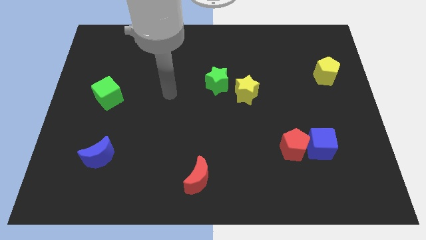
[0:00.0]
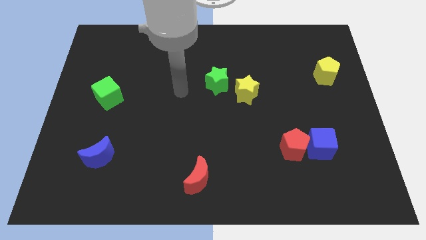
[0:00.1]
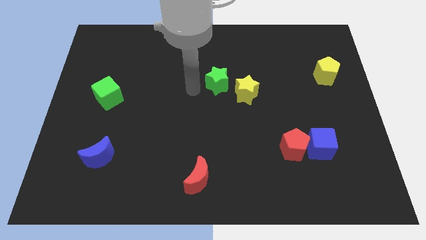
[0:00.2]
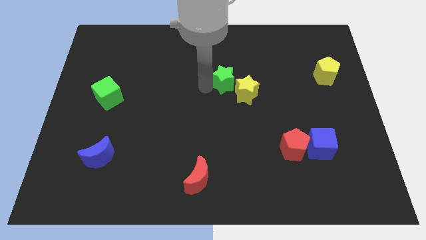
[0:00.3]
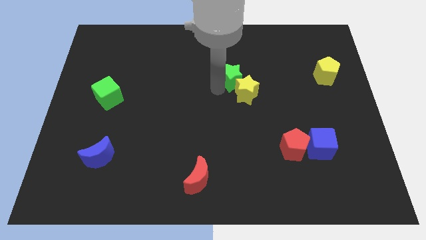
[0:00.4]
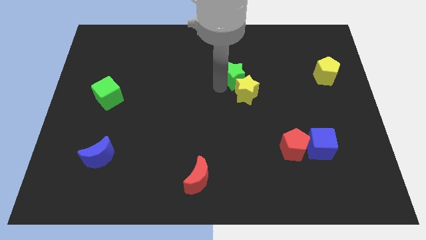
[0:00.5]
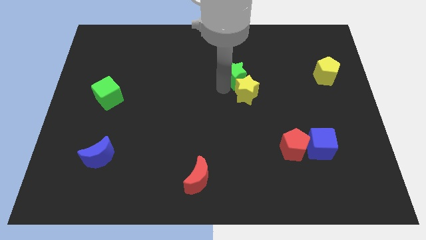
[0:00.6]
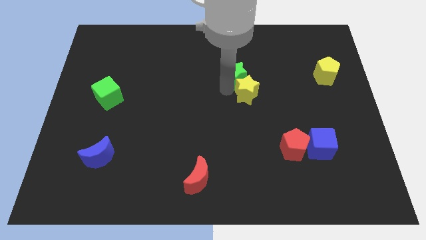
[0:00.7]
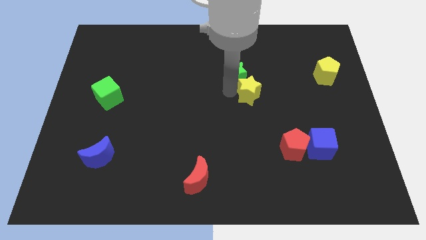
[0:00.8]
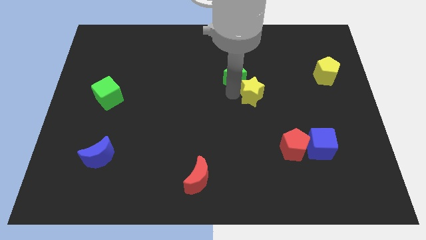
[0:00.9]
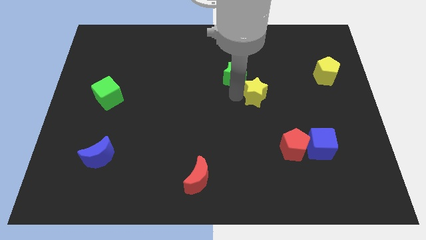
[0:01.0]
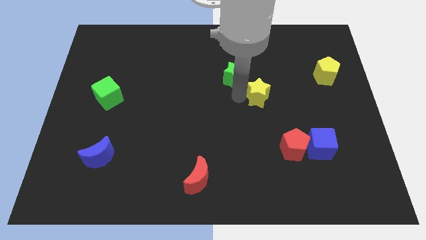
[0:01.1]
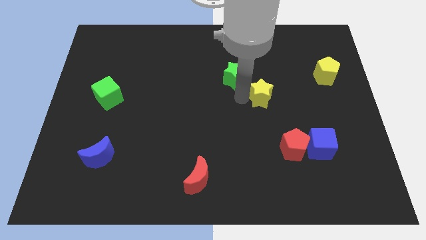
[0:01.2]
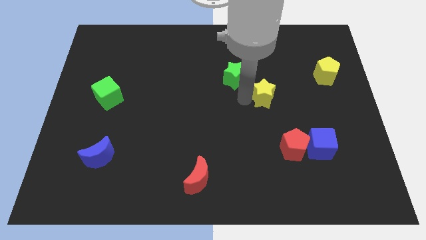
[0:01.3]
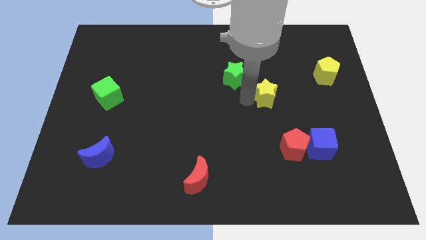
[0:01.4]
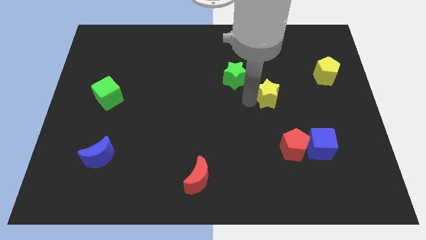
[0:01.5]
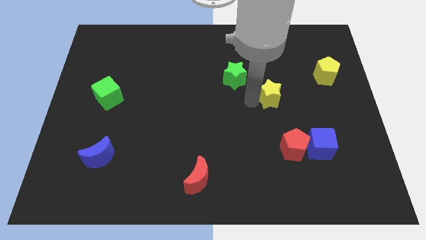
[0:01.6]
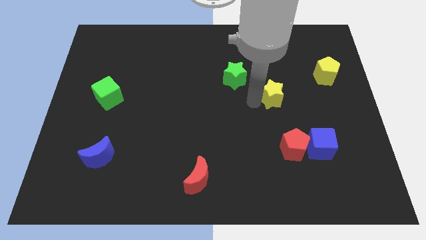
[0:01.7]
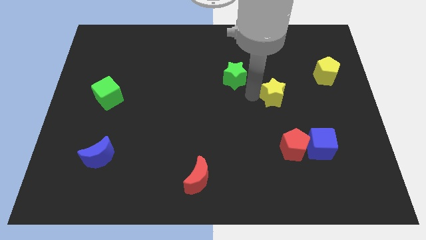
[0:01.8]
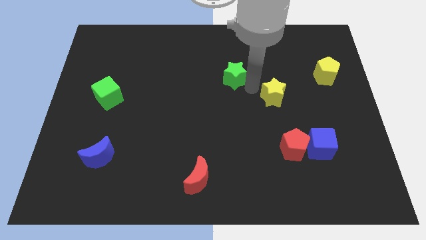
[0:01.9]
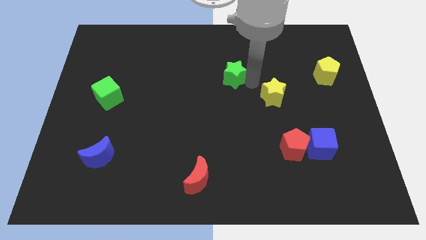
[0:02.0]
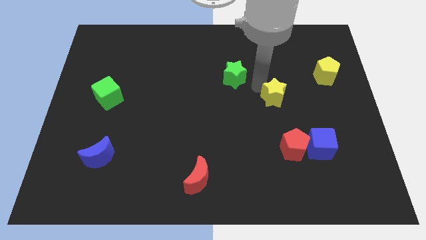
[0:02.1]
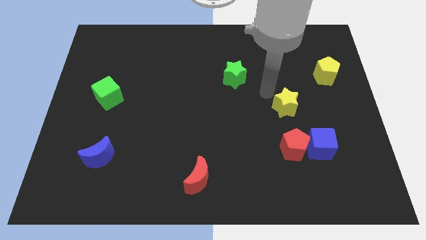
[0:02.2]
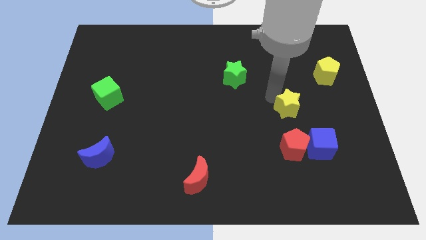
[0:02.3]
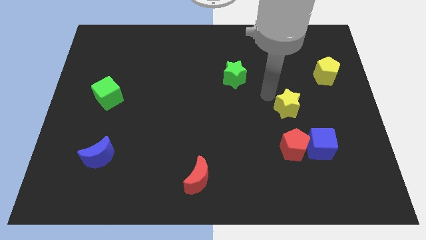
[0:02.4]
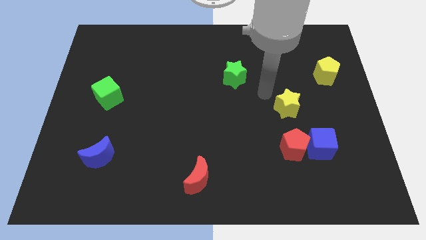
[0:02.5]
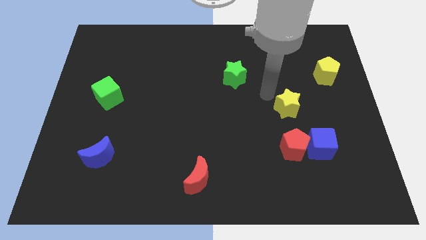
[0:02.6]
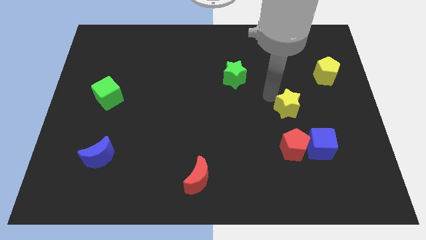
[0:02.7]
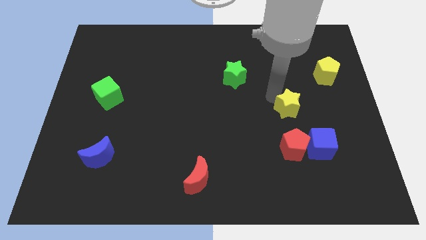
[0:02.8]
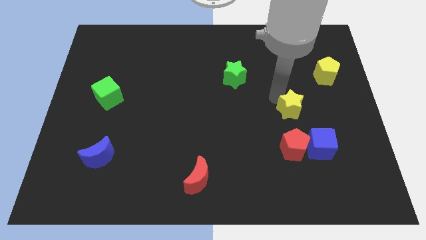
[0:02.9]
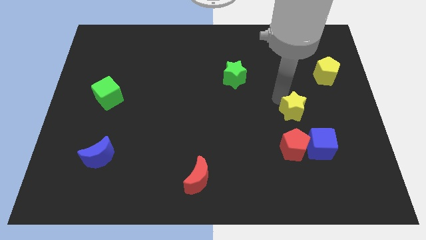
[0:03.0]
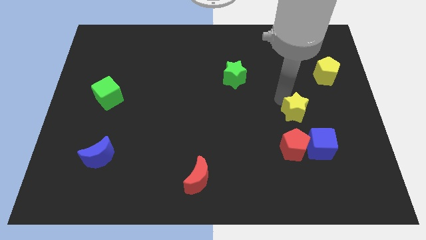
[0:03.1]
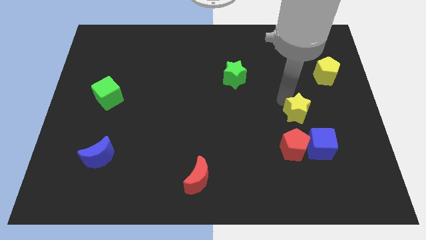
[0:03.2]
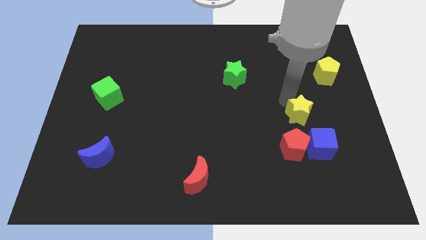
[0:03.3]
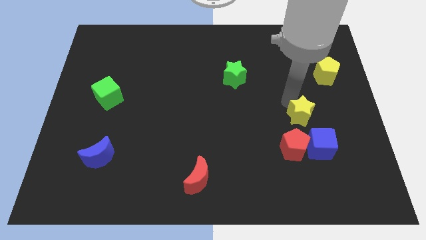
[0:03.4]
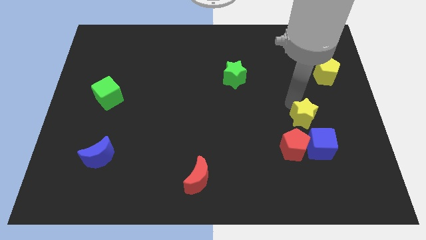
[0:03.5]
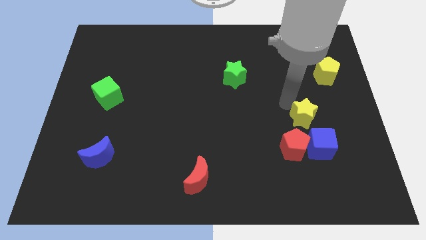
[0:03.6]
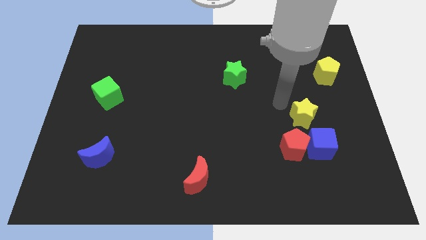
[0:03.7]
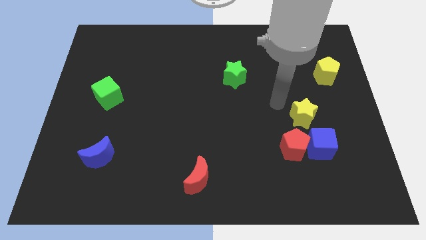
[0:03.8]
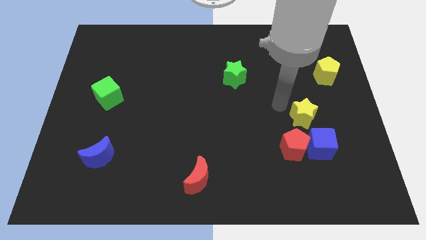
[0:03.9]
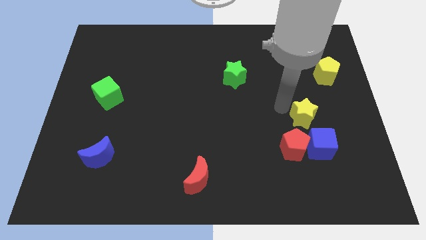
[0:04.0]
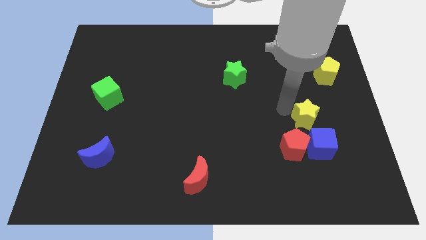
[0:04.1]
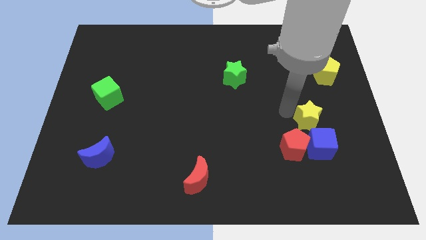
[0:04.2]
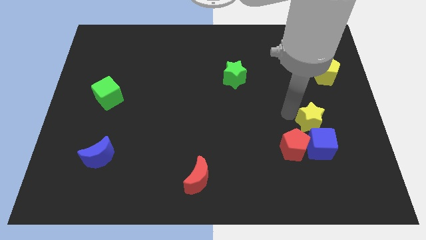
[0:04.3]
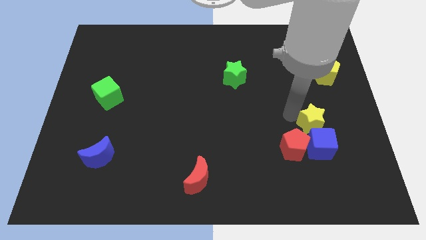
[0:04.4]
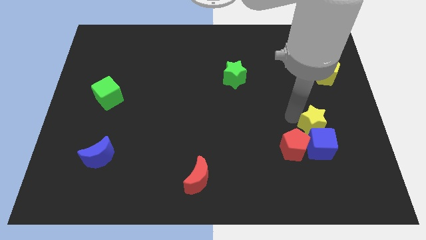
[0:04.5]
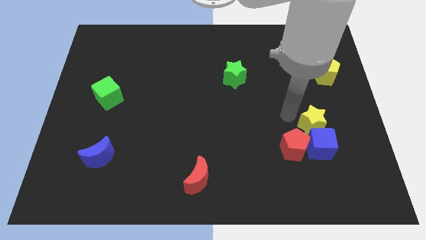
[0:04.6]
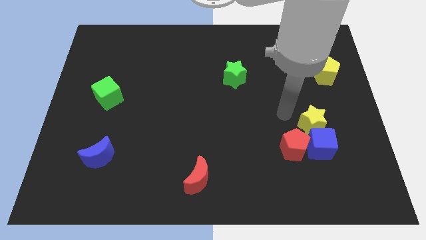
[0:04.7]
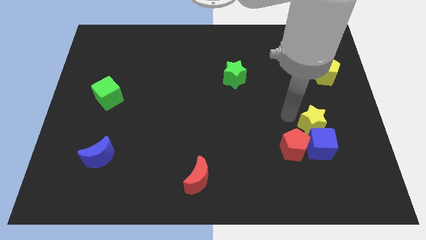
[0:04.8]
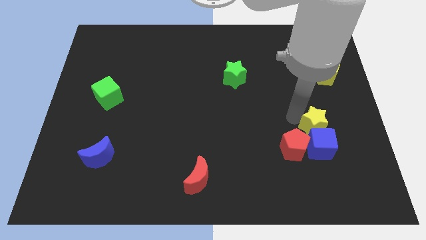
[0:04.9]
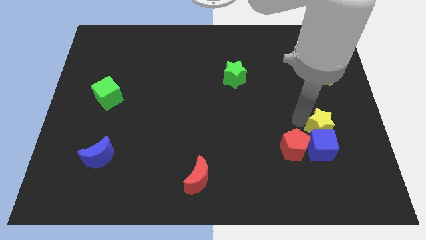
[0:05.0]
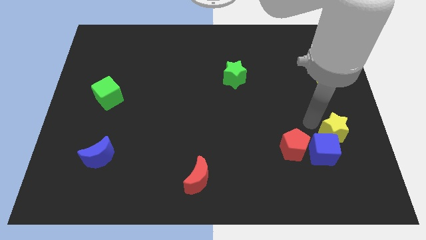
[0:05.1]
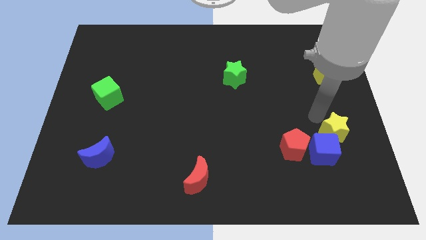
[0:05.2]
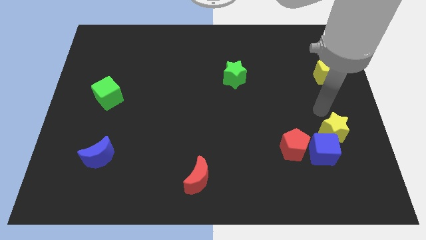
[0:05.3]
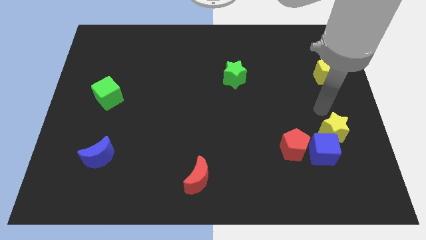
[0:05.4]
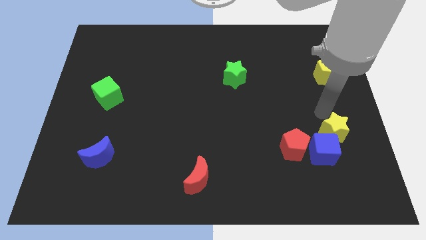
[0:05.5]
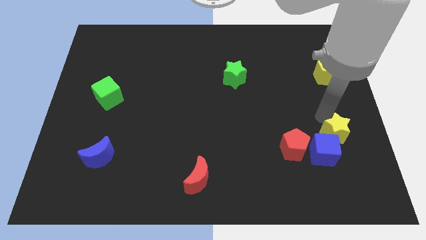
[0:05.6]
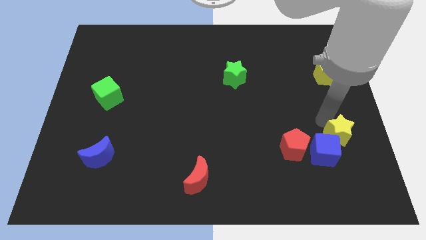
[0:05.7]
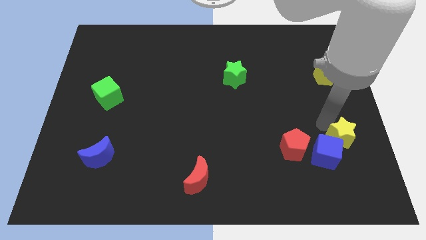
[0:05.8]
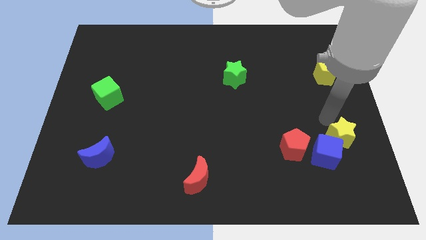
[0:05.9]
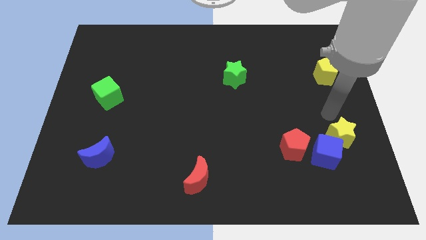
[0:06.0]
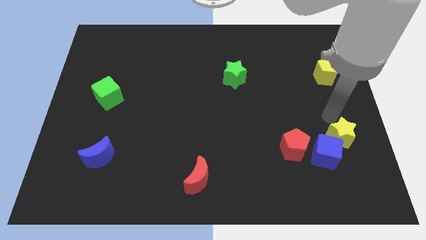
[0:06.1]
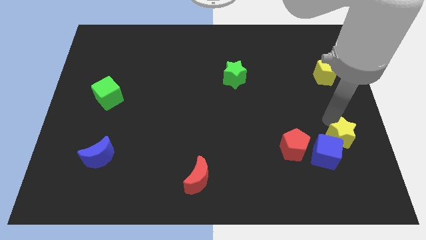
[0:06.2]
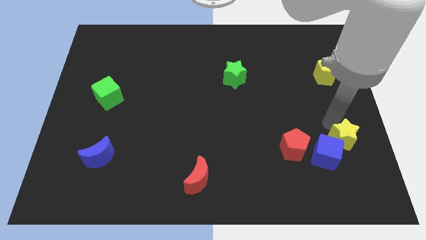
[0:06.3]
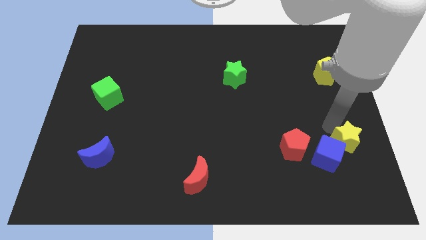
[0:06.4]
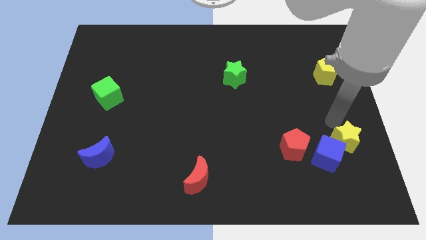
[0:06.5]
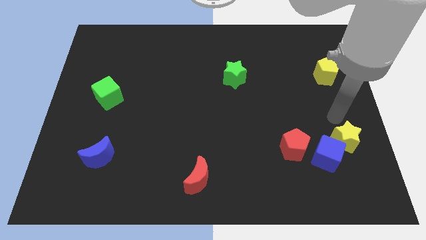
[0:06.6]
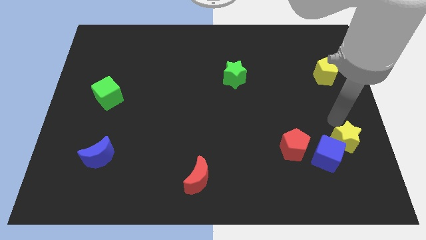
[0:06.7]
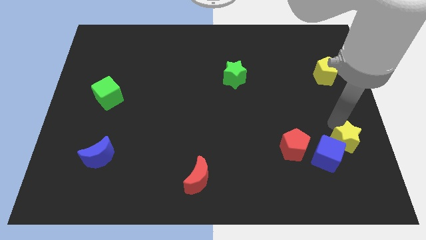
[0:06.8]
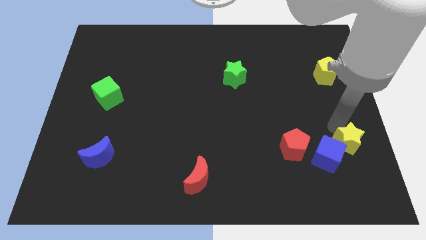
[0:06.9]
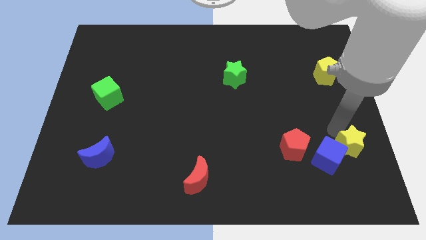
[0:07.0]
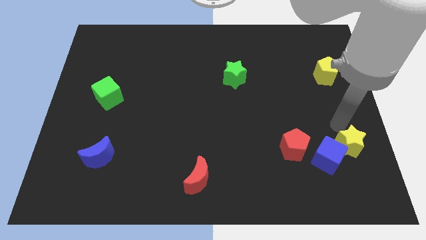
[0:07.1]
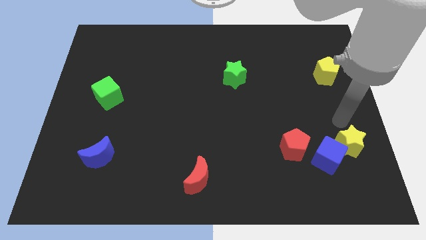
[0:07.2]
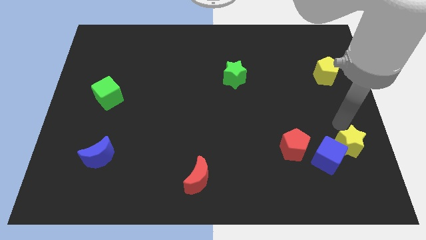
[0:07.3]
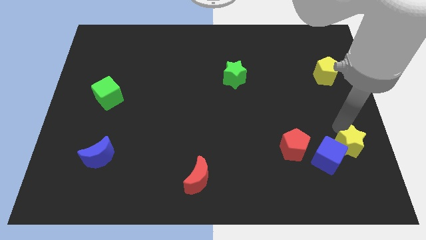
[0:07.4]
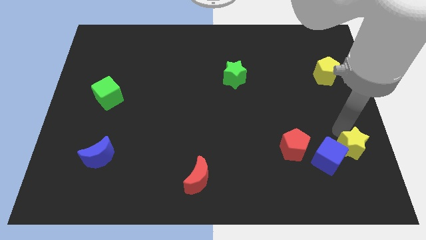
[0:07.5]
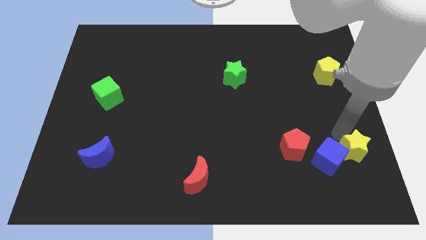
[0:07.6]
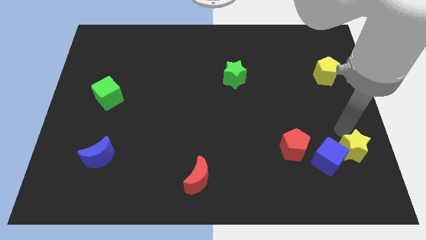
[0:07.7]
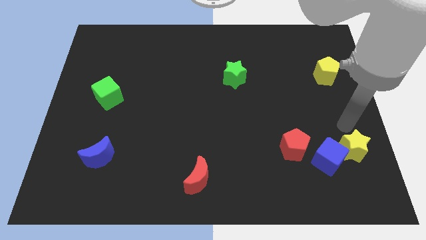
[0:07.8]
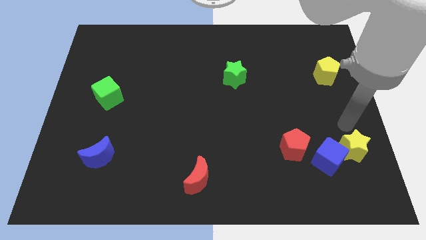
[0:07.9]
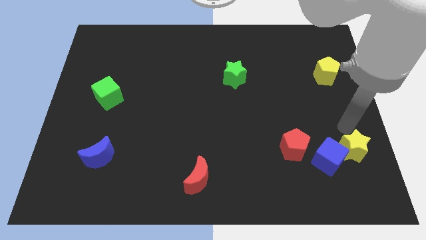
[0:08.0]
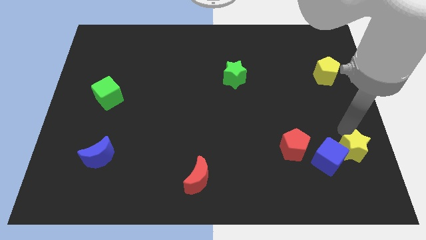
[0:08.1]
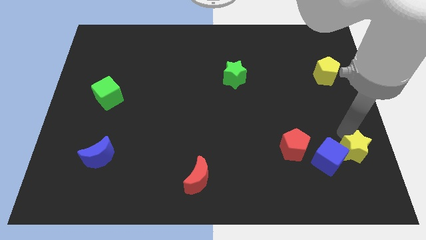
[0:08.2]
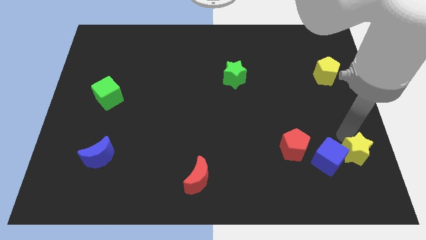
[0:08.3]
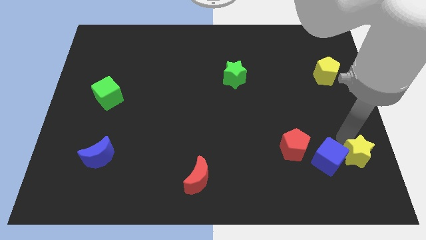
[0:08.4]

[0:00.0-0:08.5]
move the yellow star to the bottom right of the blue cube
